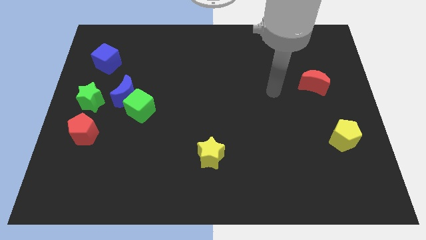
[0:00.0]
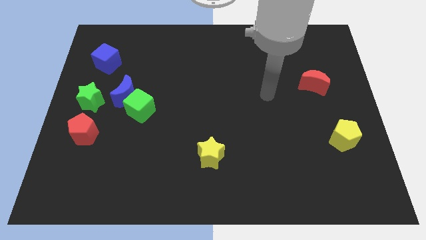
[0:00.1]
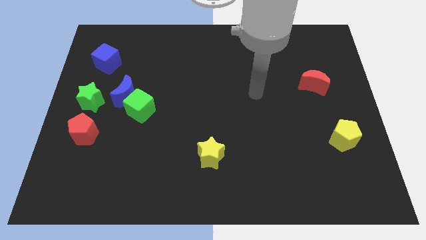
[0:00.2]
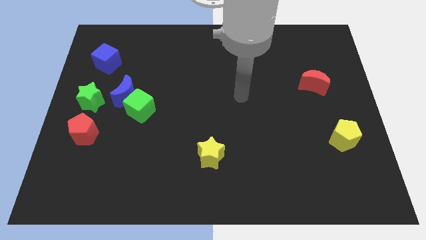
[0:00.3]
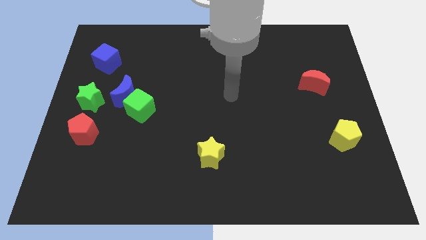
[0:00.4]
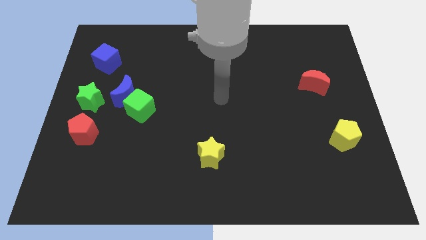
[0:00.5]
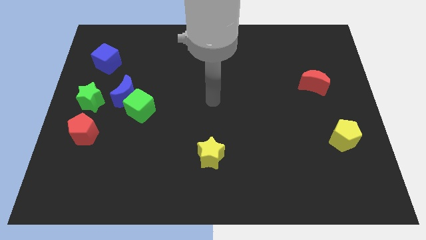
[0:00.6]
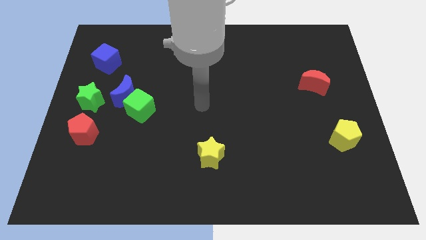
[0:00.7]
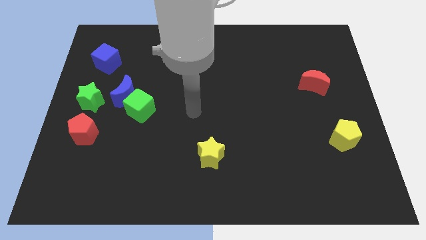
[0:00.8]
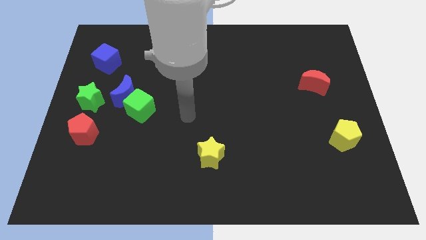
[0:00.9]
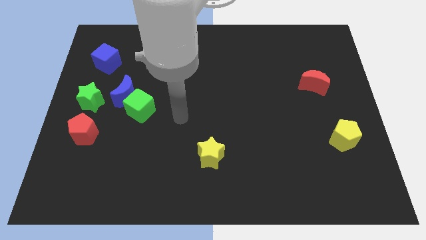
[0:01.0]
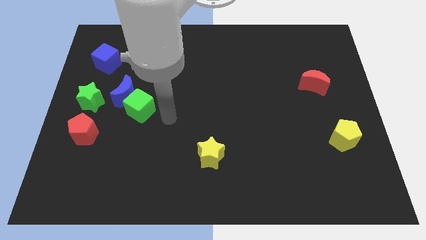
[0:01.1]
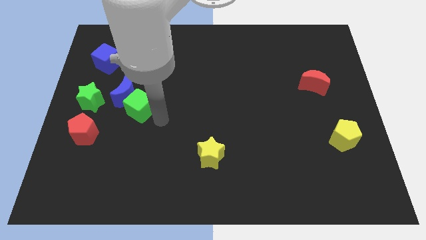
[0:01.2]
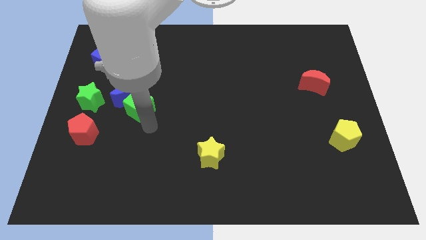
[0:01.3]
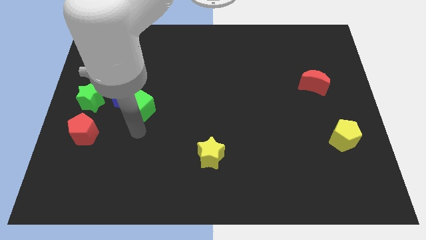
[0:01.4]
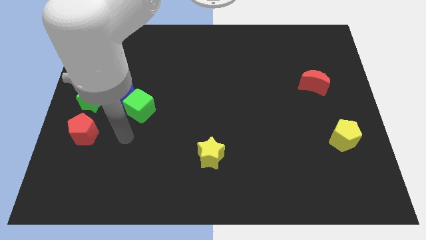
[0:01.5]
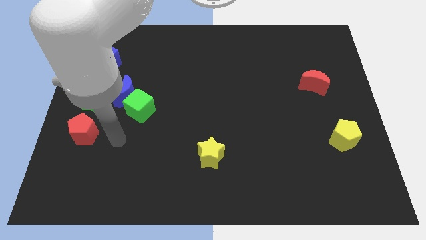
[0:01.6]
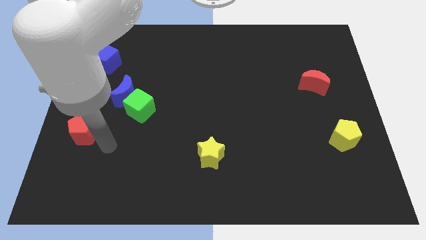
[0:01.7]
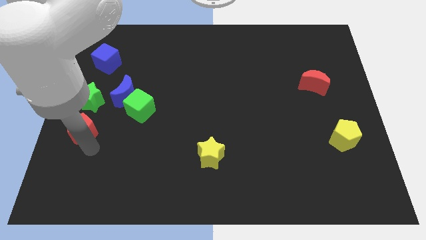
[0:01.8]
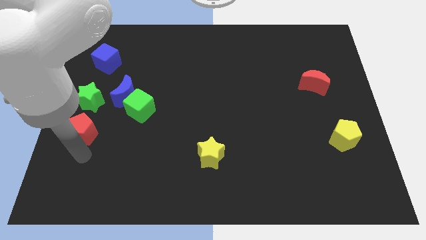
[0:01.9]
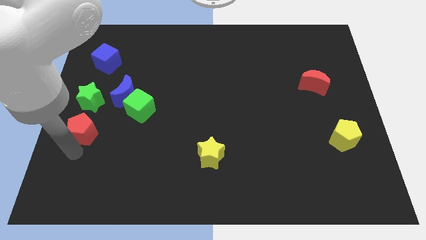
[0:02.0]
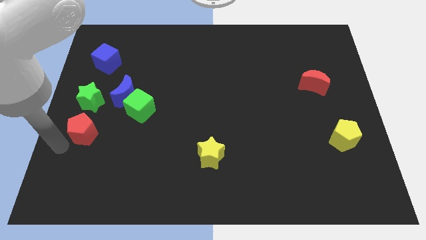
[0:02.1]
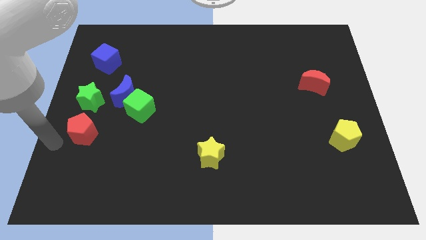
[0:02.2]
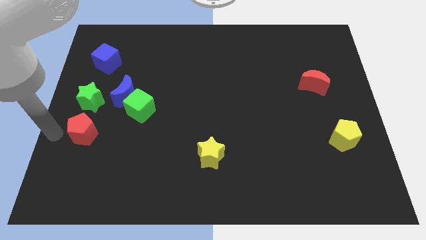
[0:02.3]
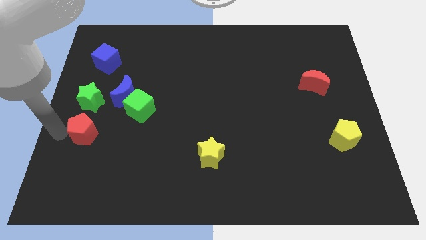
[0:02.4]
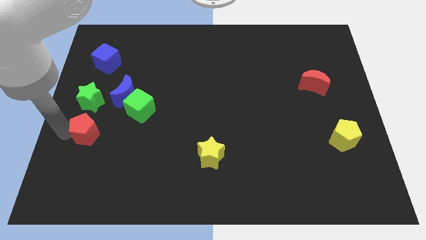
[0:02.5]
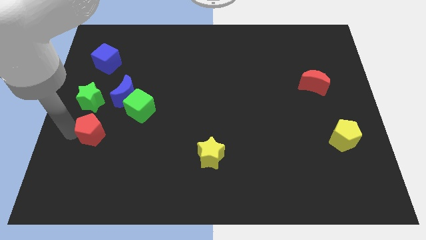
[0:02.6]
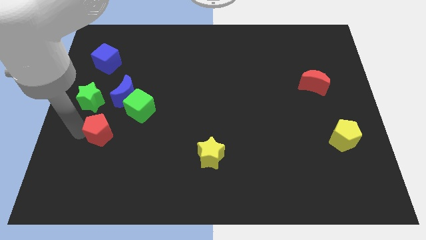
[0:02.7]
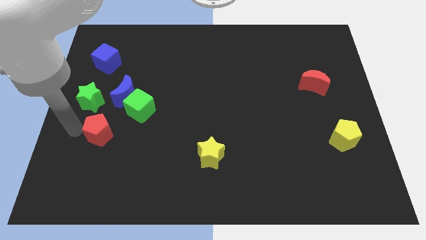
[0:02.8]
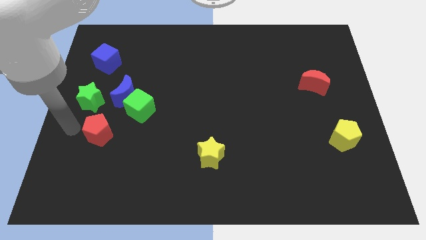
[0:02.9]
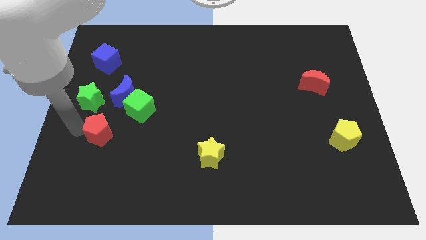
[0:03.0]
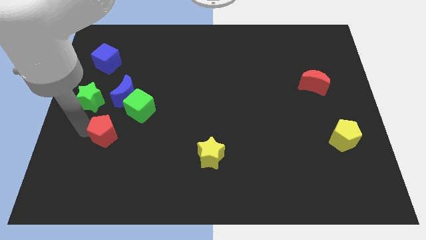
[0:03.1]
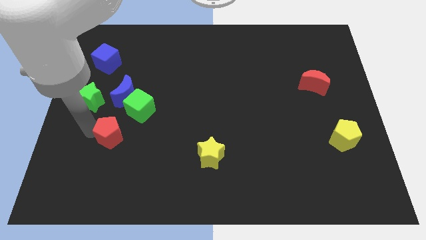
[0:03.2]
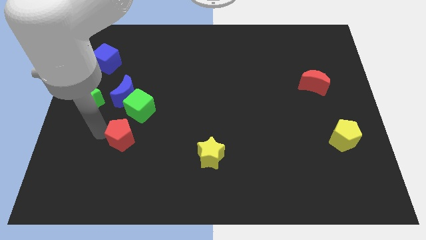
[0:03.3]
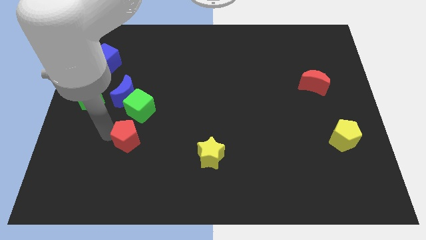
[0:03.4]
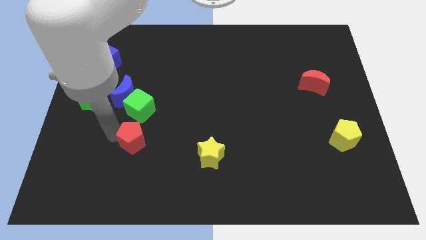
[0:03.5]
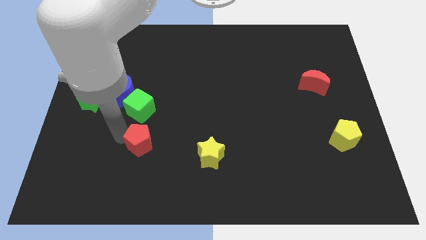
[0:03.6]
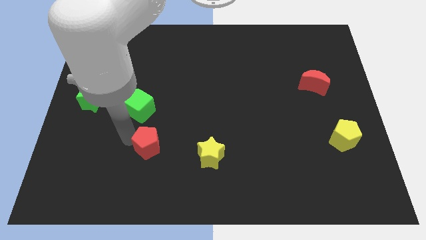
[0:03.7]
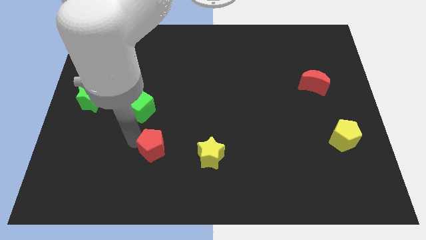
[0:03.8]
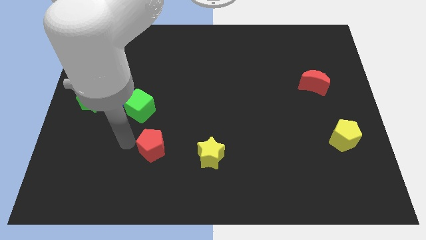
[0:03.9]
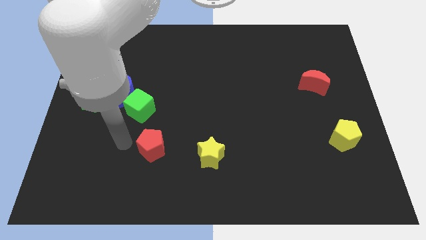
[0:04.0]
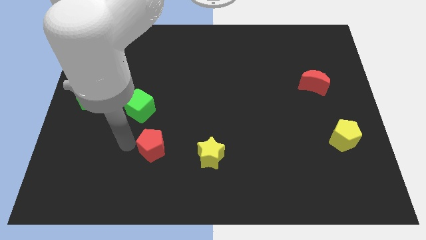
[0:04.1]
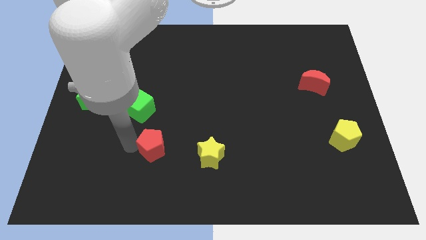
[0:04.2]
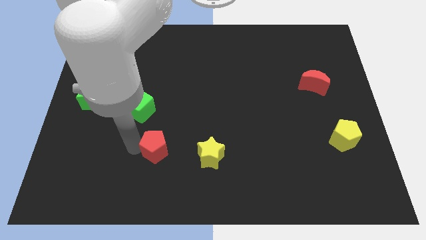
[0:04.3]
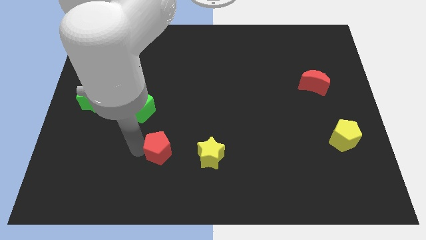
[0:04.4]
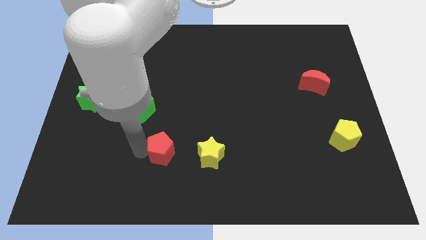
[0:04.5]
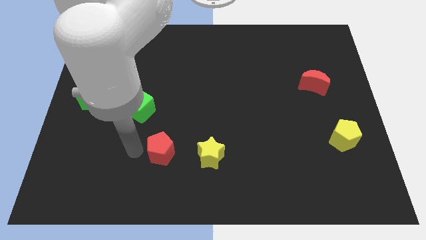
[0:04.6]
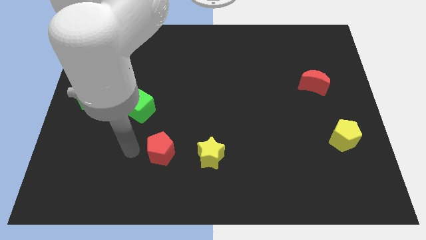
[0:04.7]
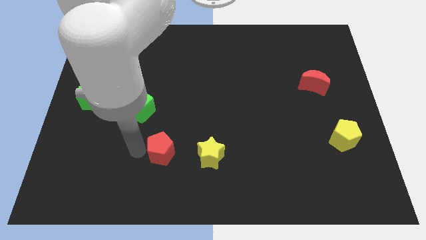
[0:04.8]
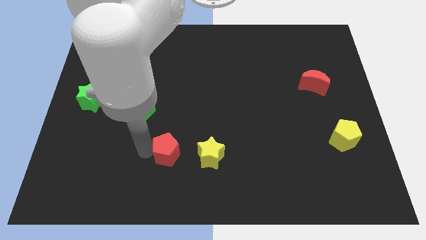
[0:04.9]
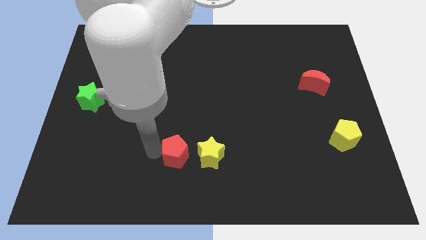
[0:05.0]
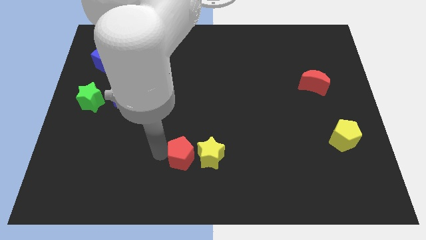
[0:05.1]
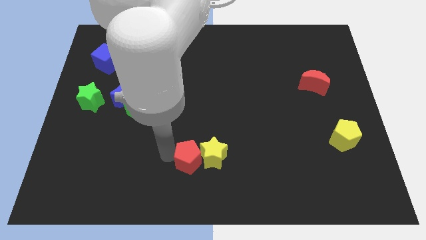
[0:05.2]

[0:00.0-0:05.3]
slide the red pentagon close to the yellow star

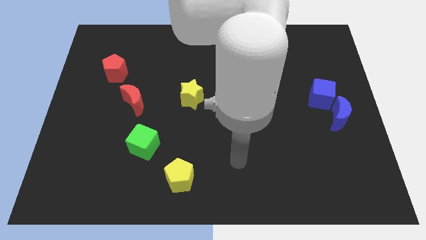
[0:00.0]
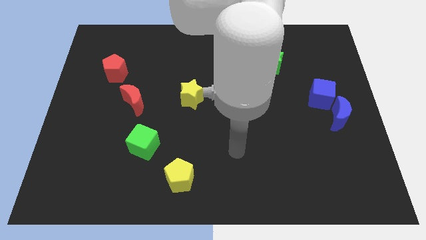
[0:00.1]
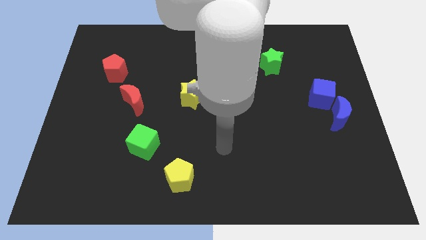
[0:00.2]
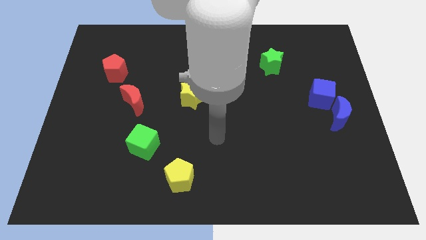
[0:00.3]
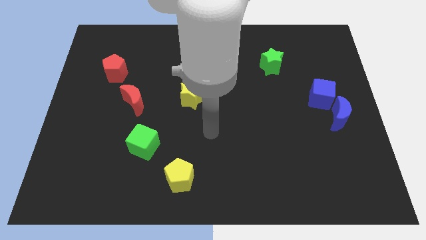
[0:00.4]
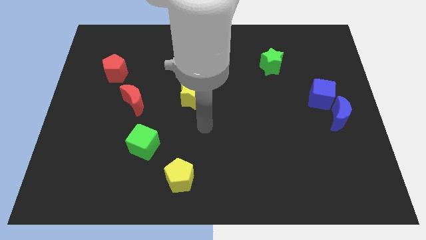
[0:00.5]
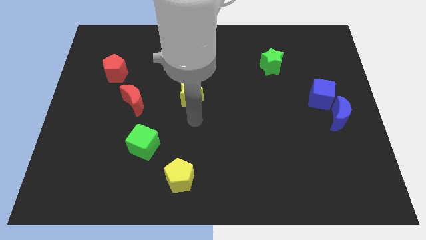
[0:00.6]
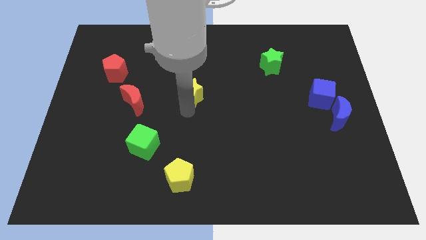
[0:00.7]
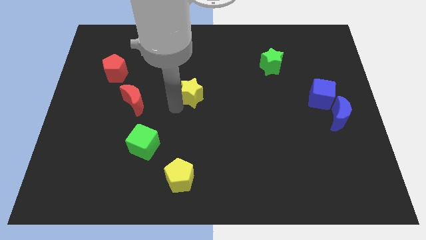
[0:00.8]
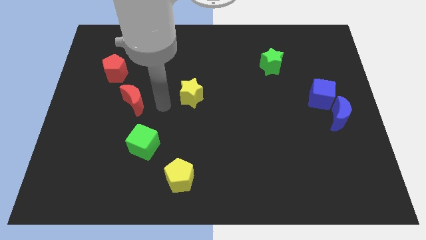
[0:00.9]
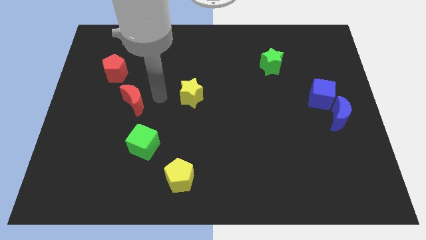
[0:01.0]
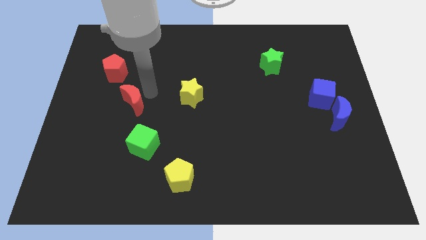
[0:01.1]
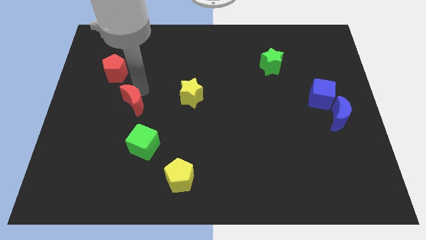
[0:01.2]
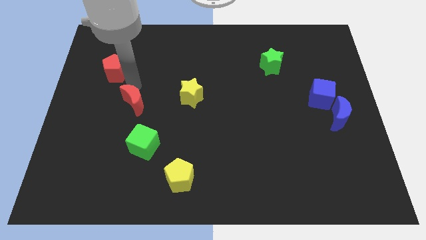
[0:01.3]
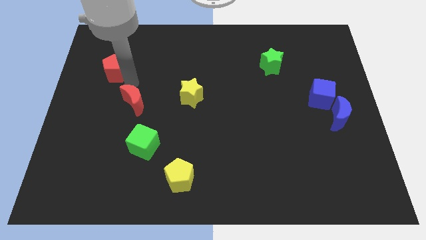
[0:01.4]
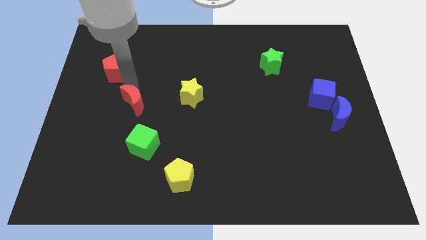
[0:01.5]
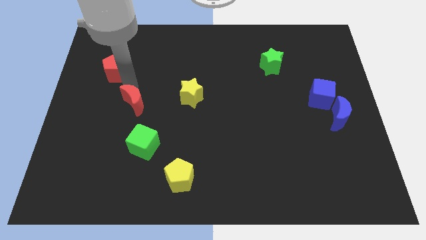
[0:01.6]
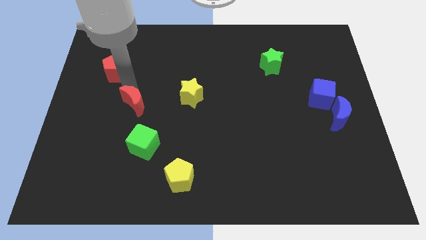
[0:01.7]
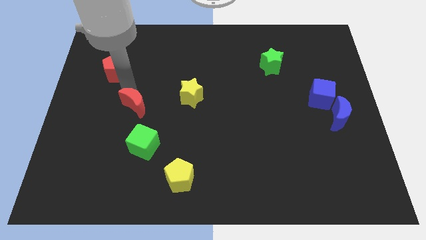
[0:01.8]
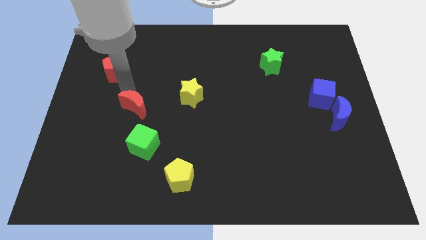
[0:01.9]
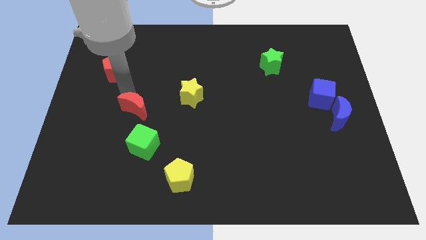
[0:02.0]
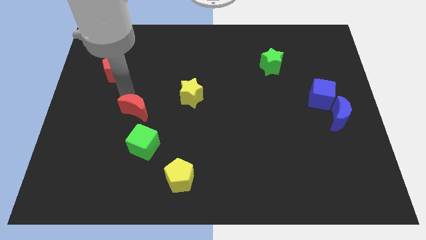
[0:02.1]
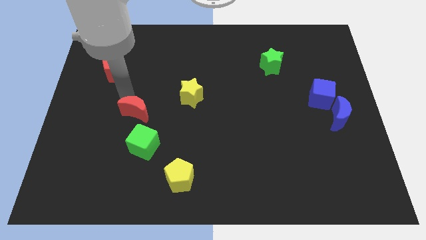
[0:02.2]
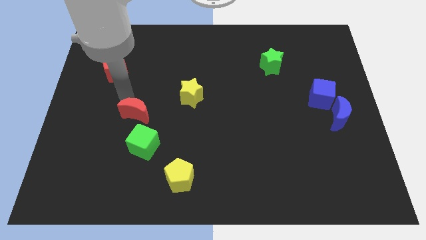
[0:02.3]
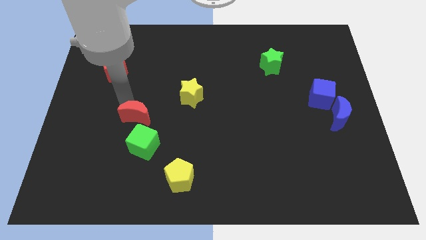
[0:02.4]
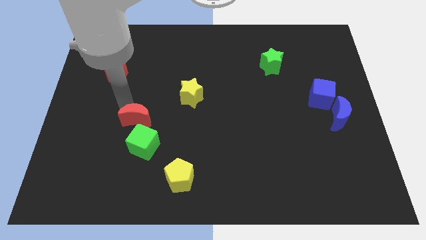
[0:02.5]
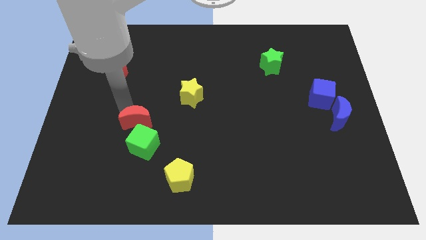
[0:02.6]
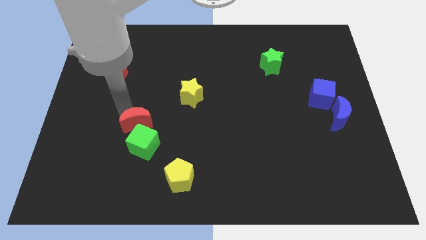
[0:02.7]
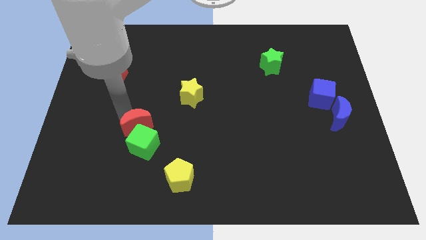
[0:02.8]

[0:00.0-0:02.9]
move the red moon towards the green cube
